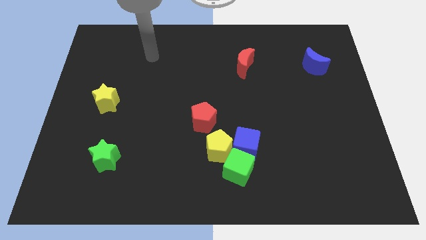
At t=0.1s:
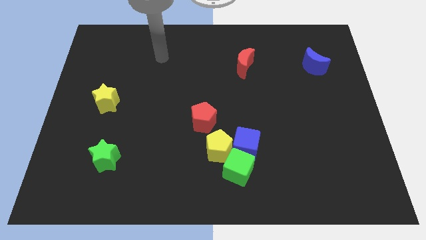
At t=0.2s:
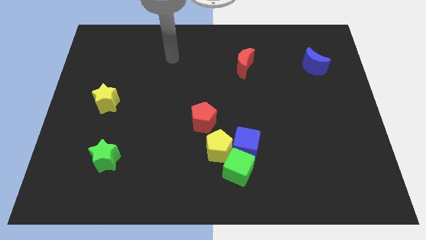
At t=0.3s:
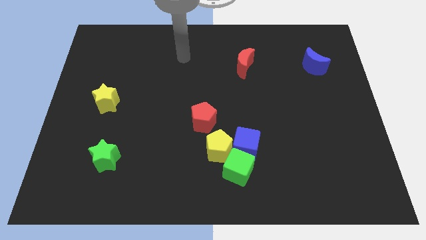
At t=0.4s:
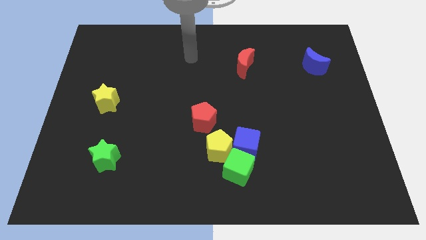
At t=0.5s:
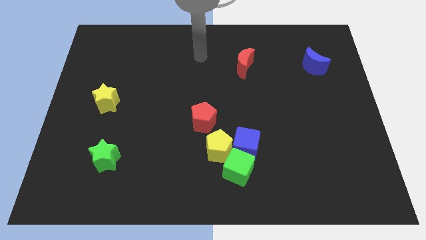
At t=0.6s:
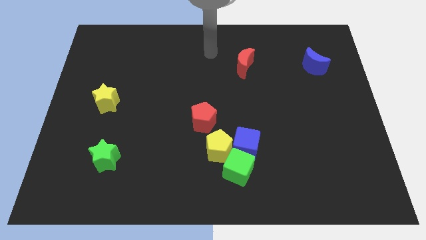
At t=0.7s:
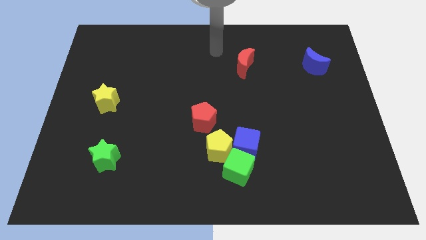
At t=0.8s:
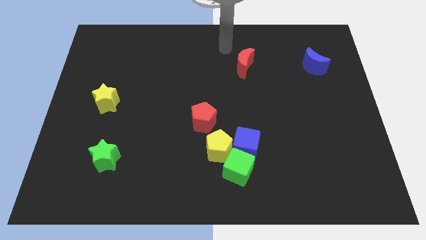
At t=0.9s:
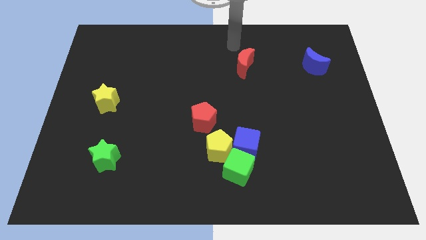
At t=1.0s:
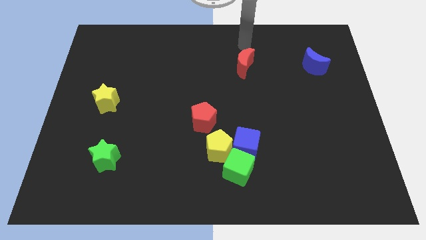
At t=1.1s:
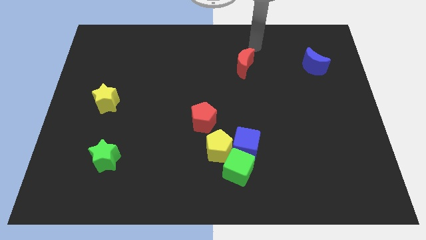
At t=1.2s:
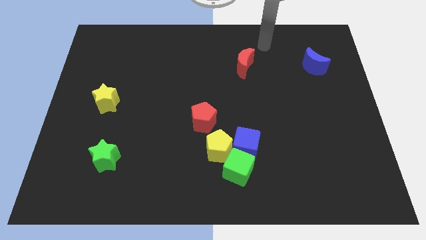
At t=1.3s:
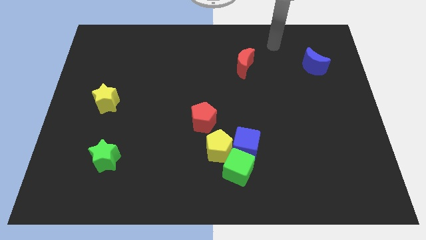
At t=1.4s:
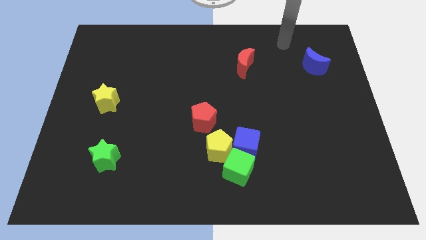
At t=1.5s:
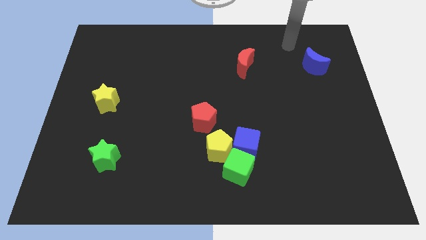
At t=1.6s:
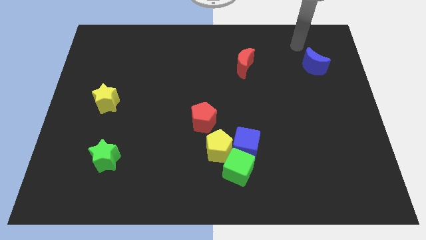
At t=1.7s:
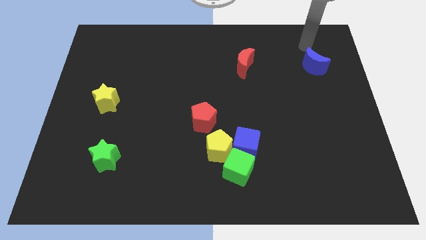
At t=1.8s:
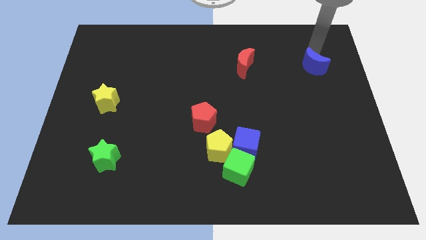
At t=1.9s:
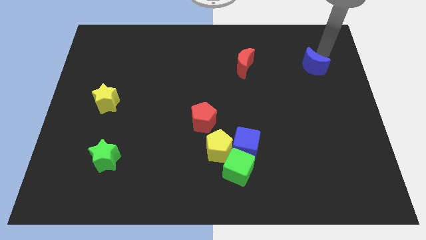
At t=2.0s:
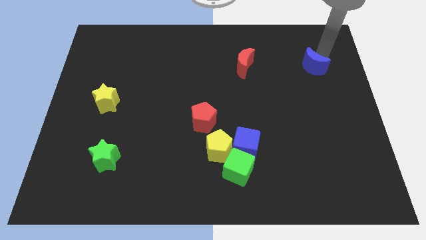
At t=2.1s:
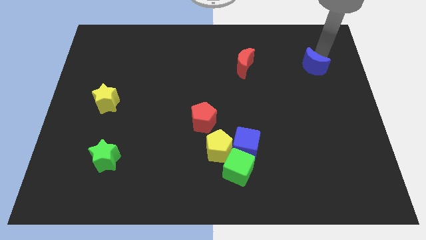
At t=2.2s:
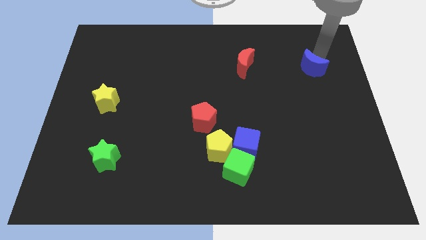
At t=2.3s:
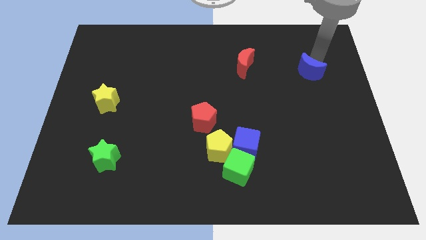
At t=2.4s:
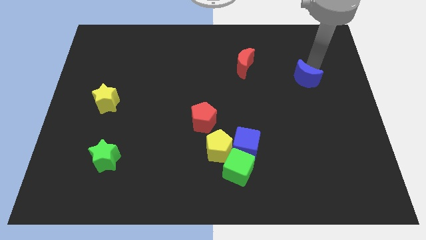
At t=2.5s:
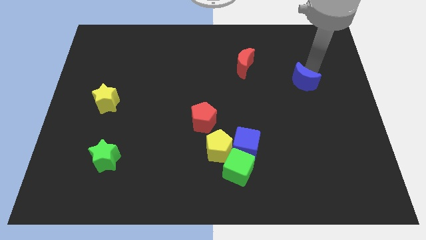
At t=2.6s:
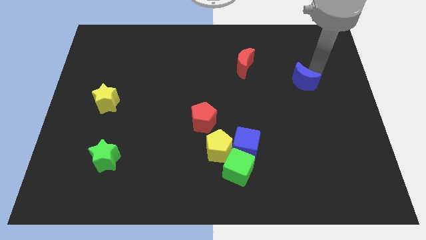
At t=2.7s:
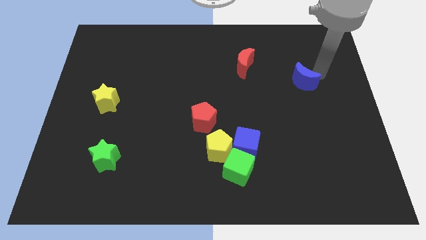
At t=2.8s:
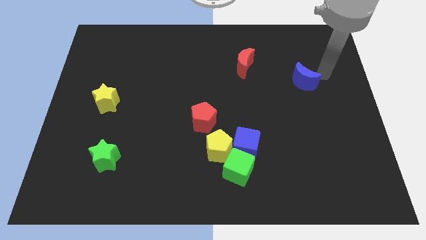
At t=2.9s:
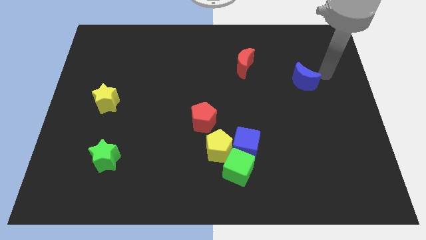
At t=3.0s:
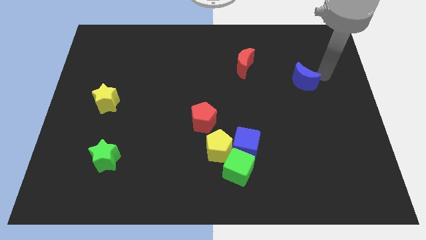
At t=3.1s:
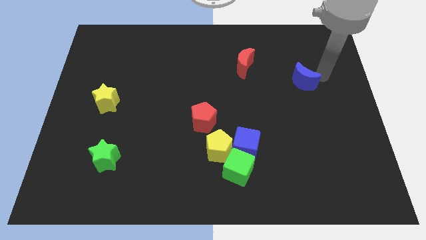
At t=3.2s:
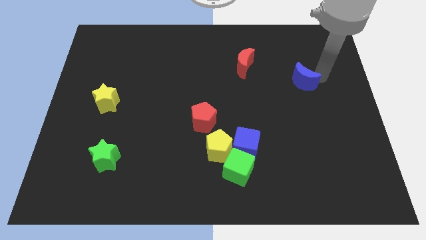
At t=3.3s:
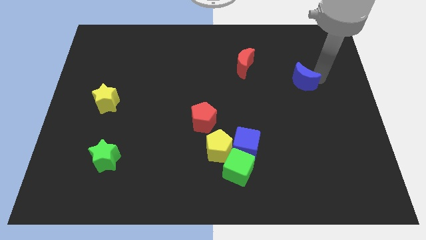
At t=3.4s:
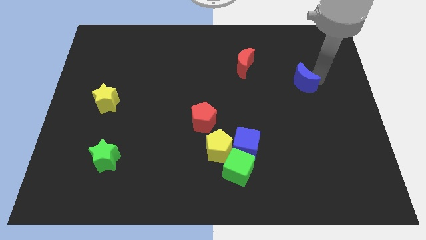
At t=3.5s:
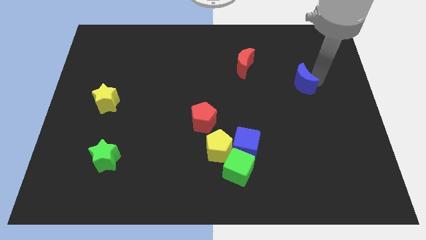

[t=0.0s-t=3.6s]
slide the blue moon somewhat down and left

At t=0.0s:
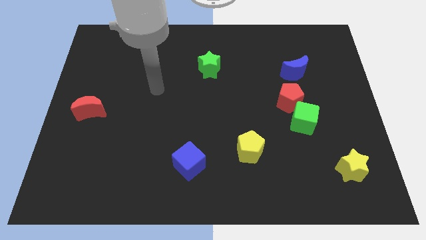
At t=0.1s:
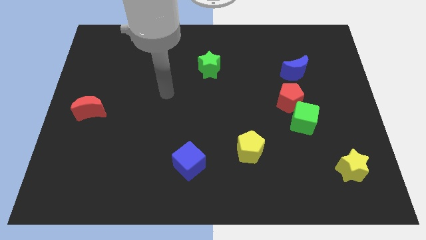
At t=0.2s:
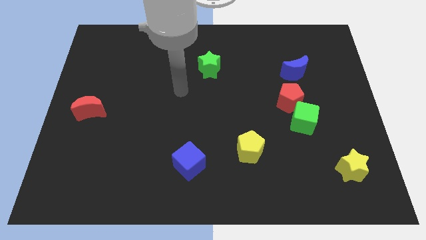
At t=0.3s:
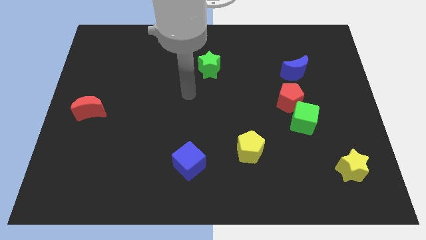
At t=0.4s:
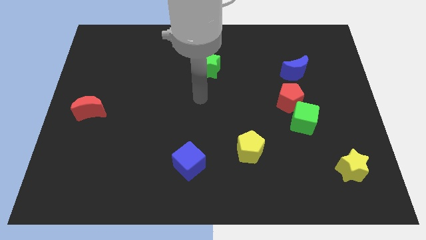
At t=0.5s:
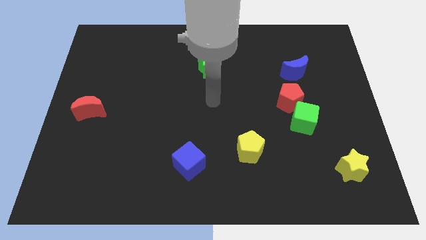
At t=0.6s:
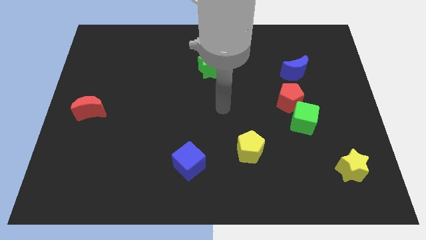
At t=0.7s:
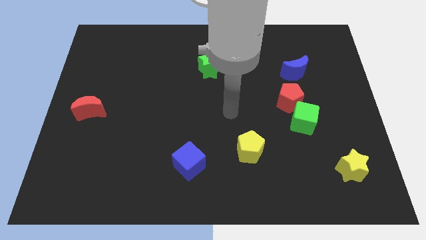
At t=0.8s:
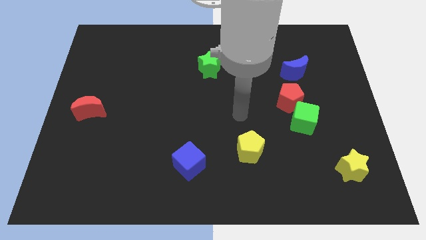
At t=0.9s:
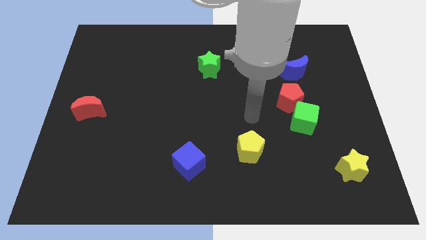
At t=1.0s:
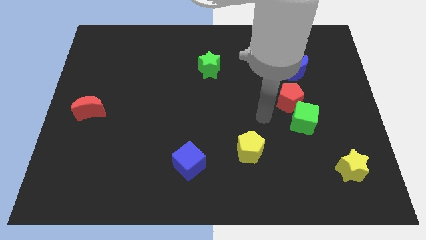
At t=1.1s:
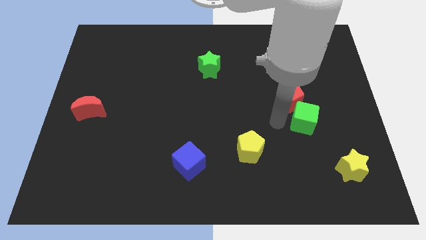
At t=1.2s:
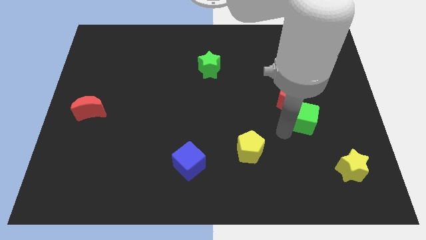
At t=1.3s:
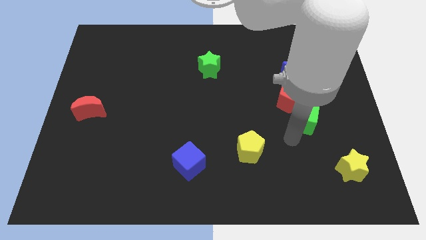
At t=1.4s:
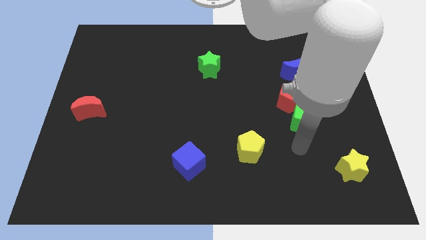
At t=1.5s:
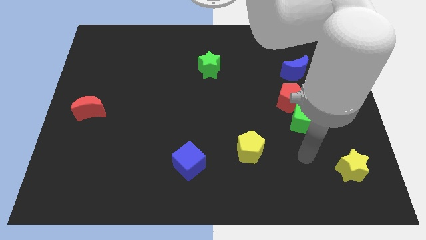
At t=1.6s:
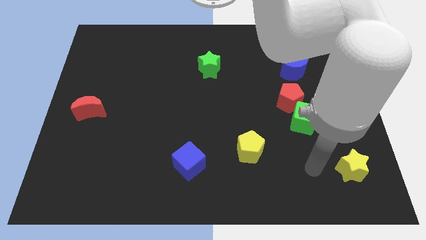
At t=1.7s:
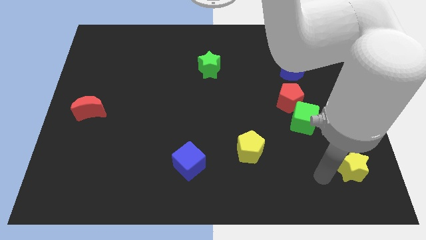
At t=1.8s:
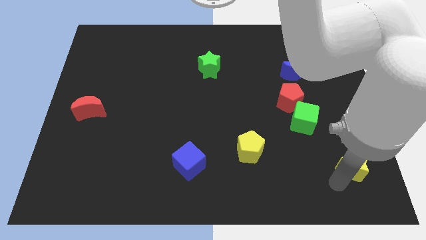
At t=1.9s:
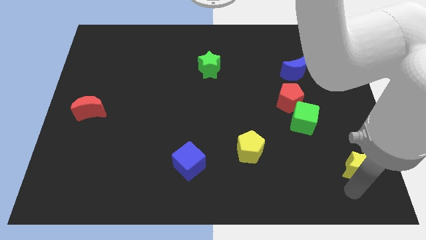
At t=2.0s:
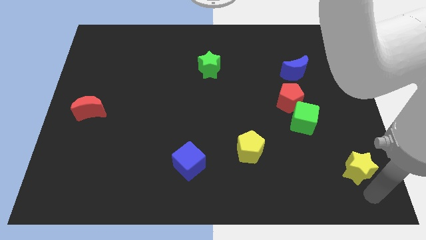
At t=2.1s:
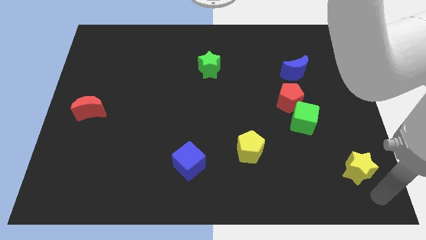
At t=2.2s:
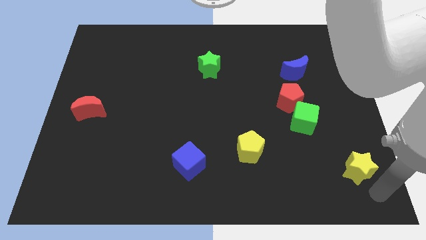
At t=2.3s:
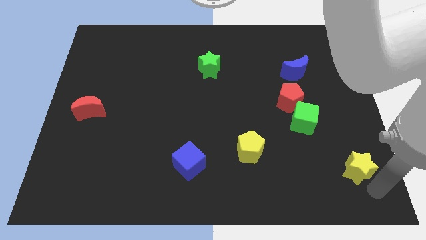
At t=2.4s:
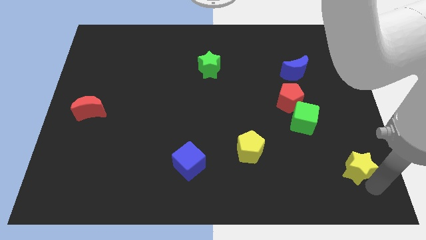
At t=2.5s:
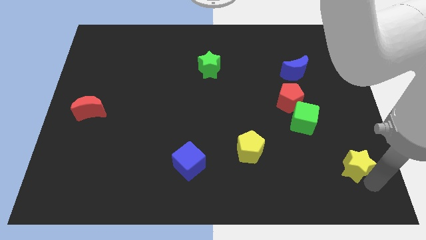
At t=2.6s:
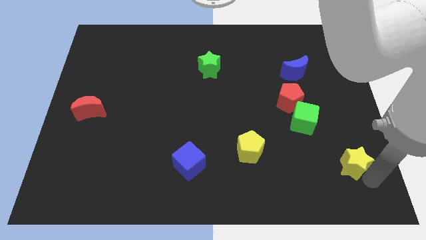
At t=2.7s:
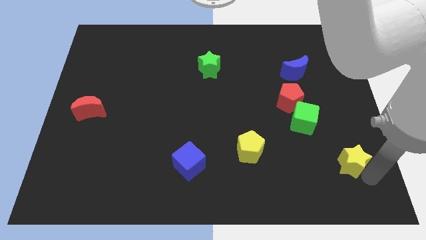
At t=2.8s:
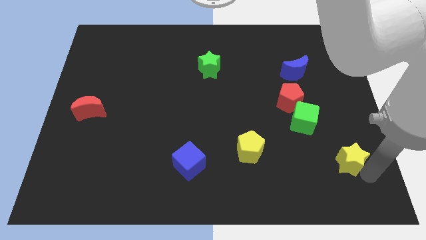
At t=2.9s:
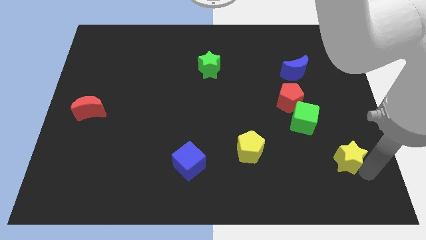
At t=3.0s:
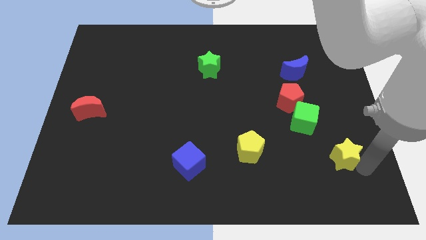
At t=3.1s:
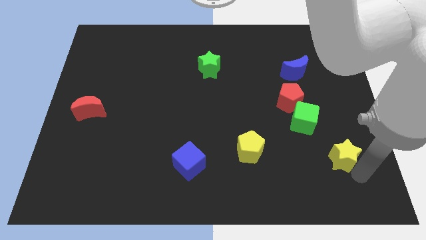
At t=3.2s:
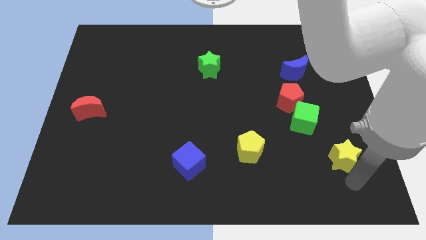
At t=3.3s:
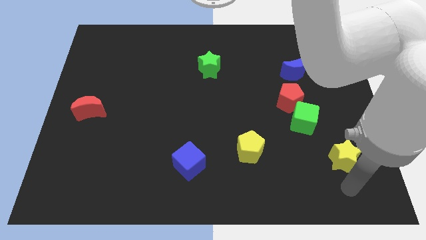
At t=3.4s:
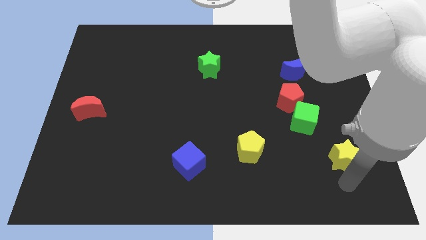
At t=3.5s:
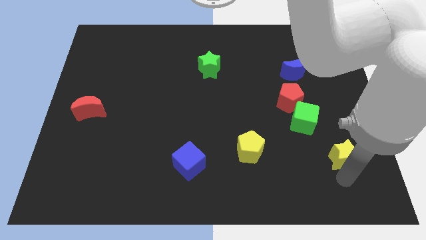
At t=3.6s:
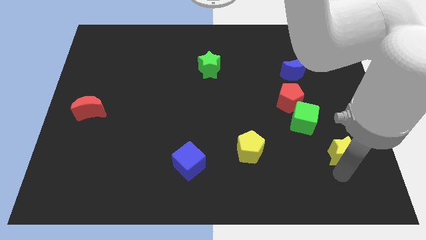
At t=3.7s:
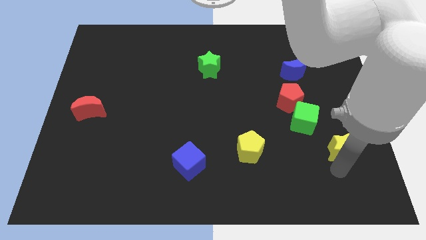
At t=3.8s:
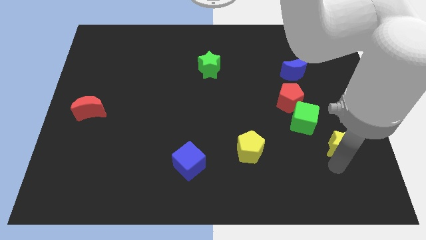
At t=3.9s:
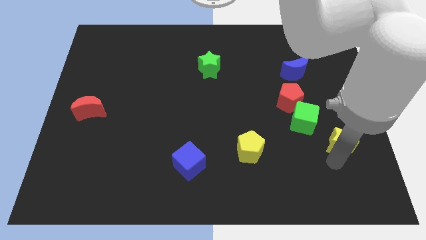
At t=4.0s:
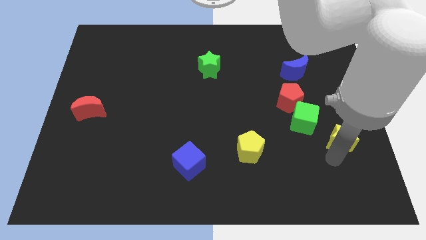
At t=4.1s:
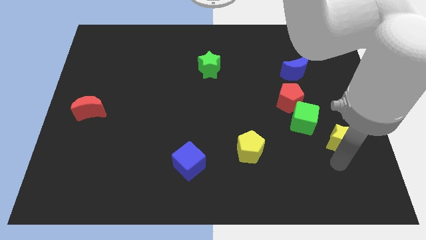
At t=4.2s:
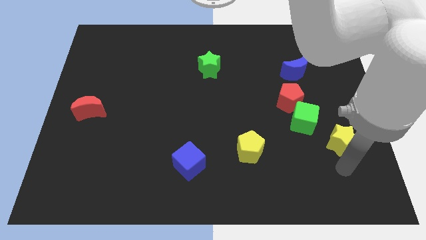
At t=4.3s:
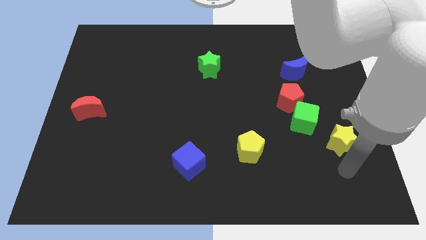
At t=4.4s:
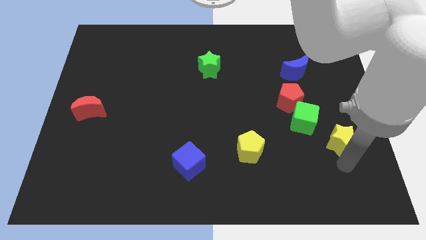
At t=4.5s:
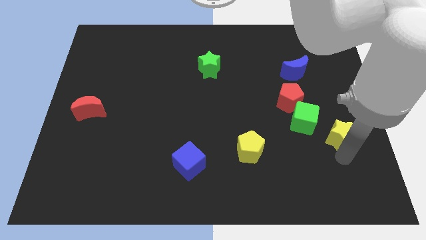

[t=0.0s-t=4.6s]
slide the yellow star somewhat up
